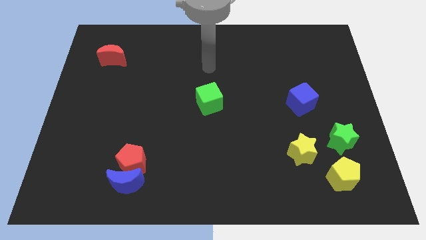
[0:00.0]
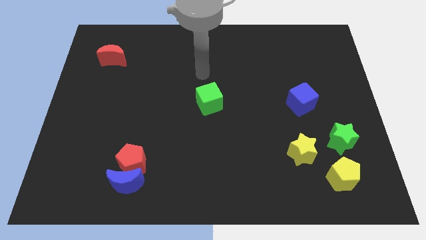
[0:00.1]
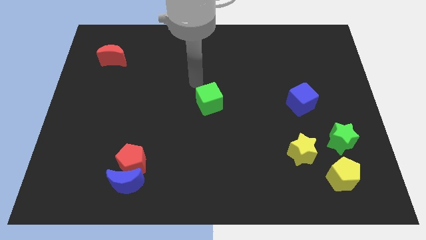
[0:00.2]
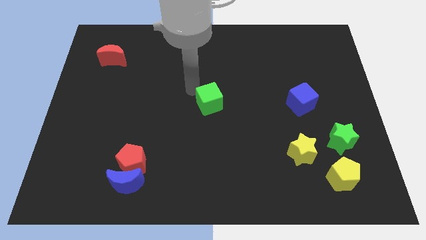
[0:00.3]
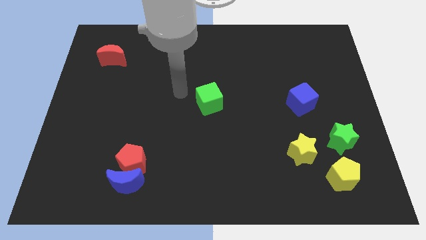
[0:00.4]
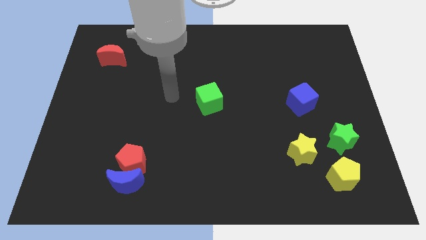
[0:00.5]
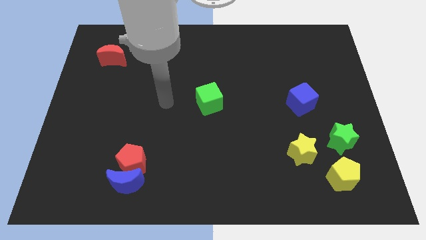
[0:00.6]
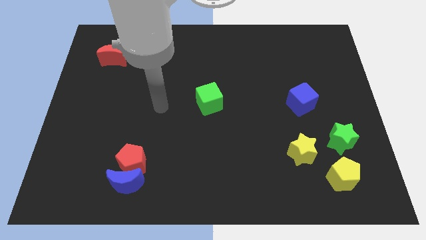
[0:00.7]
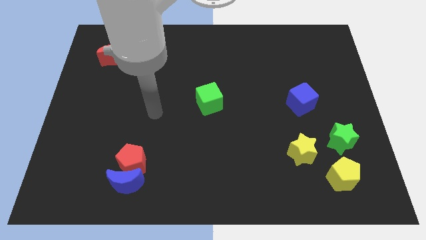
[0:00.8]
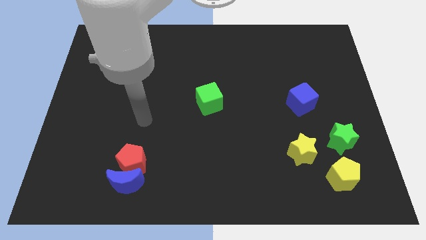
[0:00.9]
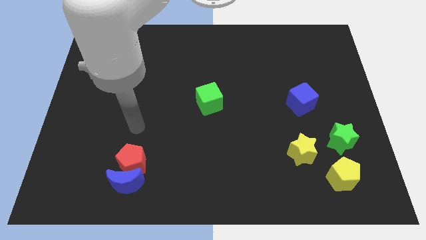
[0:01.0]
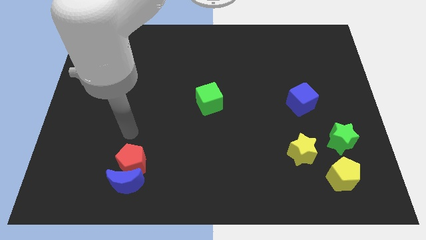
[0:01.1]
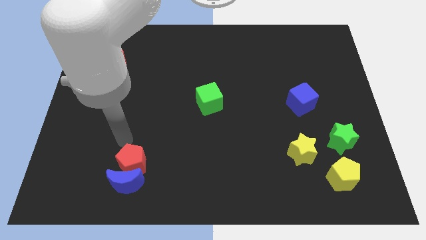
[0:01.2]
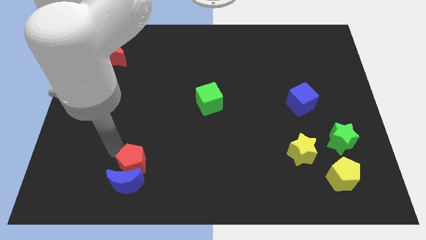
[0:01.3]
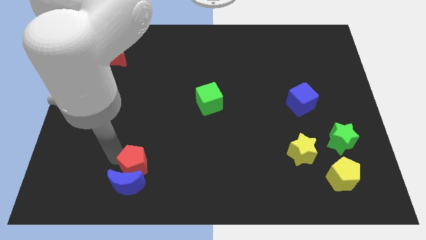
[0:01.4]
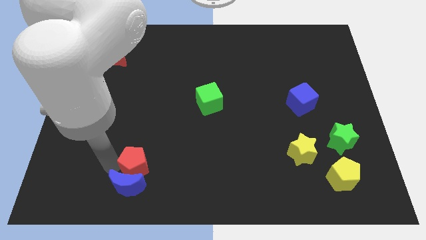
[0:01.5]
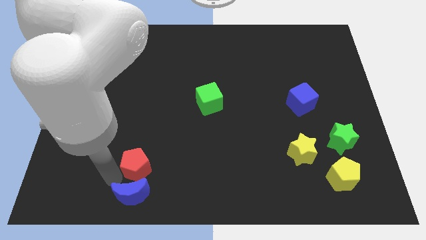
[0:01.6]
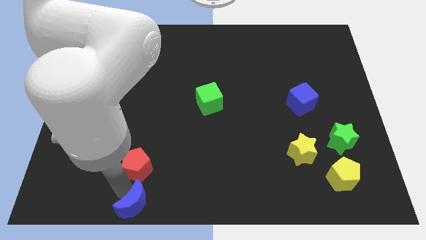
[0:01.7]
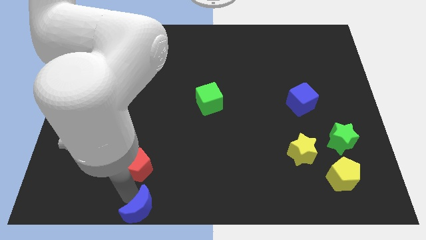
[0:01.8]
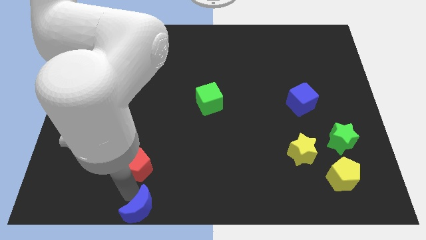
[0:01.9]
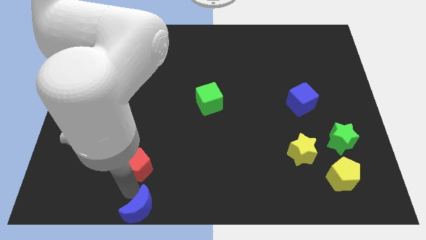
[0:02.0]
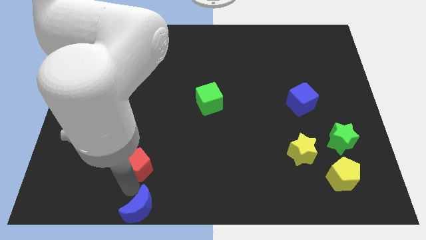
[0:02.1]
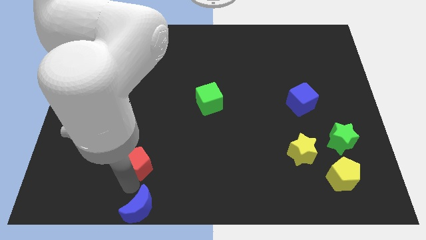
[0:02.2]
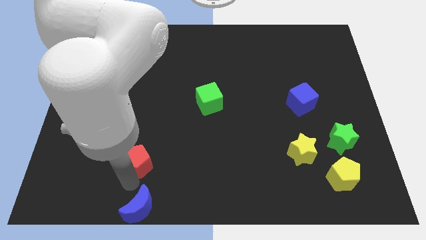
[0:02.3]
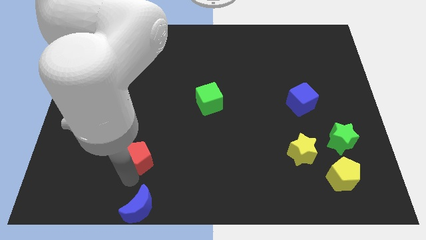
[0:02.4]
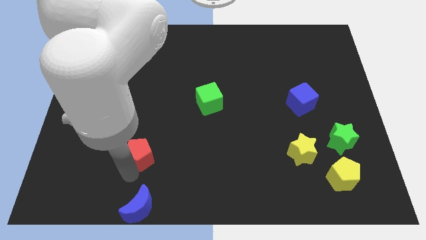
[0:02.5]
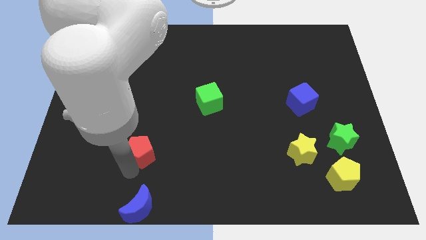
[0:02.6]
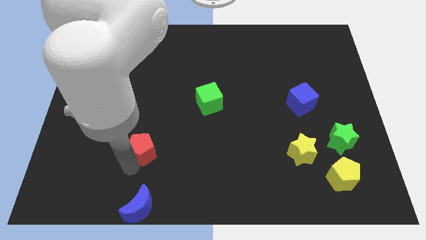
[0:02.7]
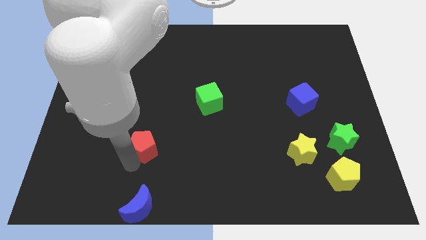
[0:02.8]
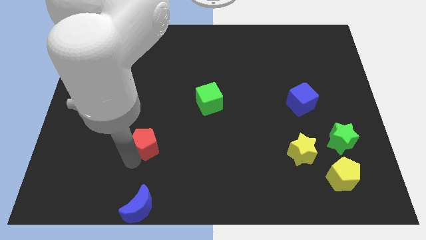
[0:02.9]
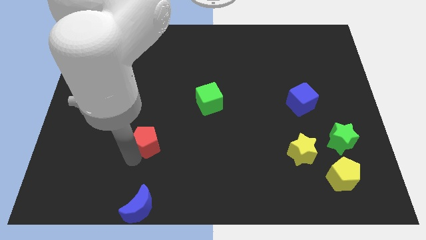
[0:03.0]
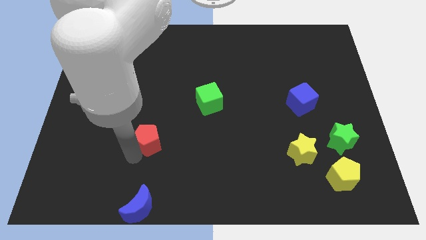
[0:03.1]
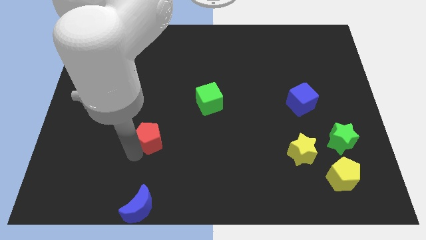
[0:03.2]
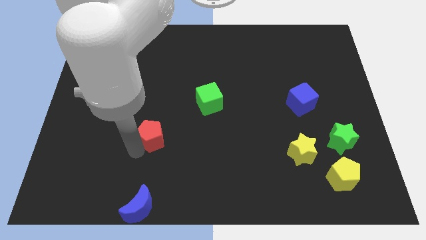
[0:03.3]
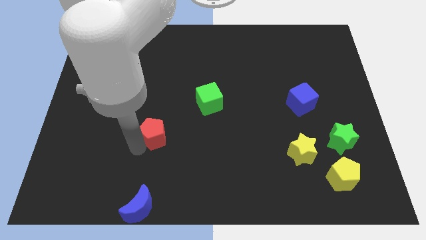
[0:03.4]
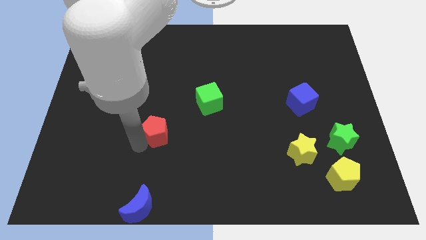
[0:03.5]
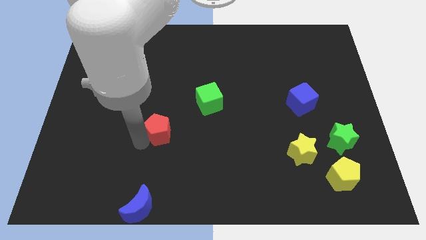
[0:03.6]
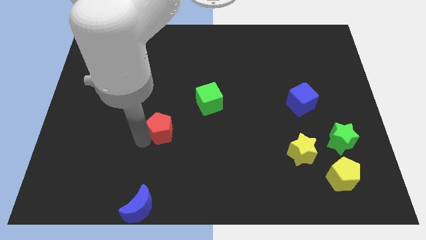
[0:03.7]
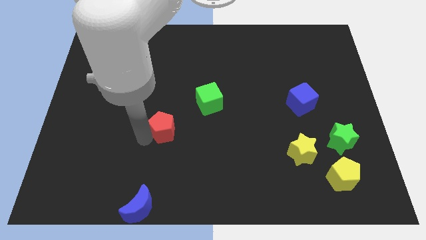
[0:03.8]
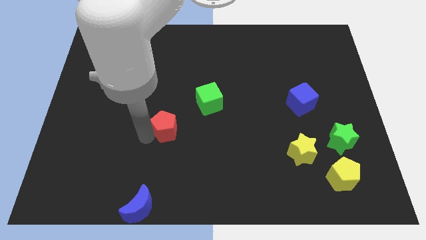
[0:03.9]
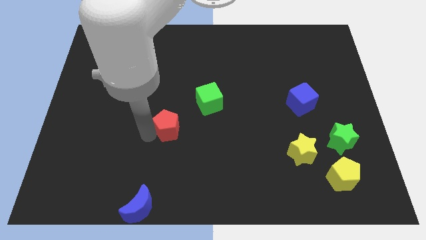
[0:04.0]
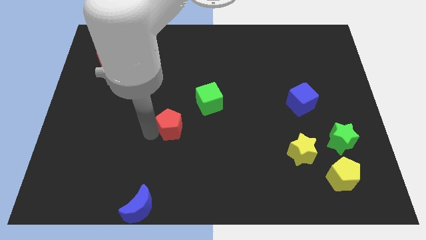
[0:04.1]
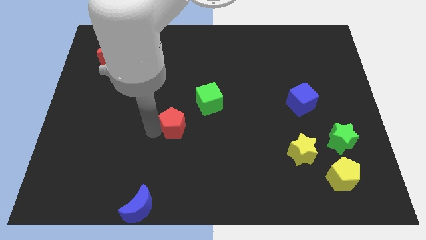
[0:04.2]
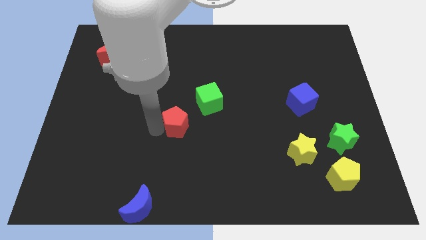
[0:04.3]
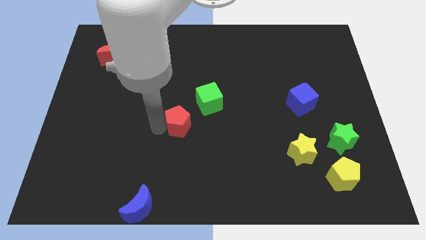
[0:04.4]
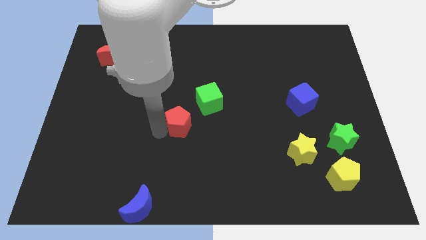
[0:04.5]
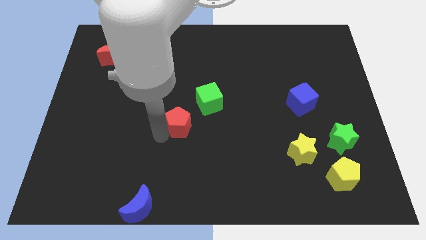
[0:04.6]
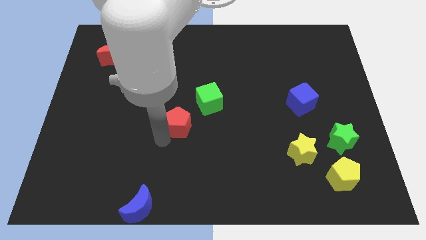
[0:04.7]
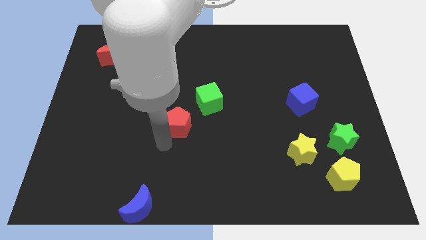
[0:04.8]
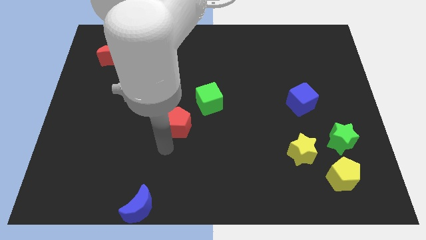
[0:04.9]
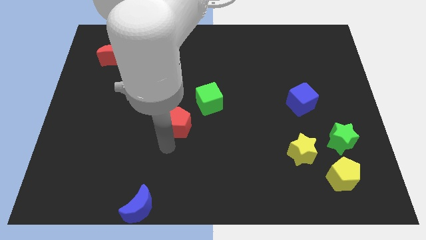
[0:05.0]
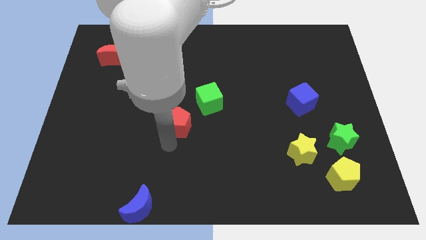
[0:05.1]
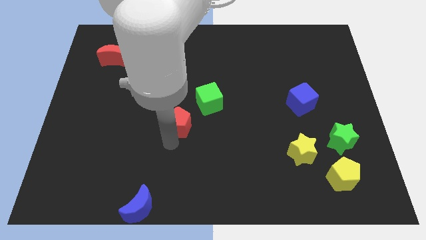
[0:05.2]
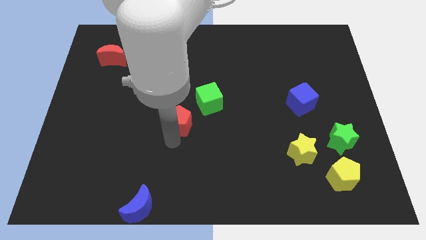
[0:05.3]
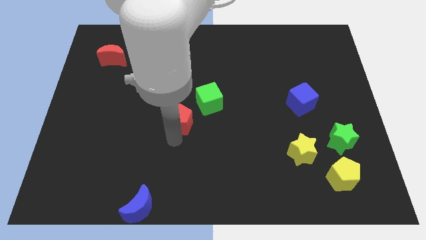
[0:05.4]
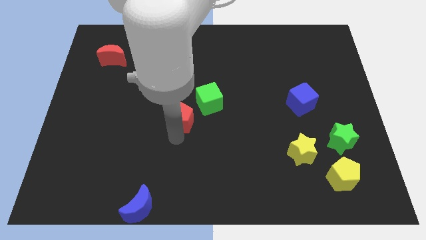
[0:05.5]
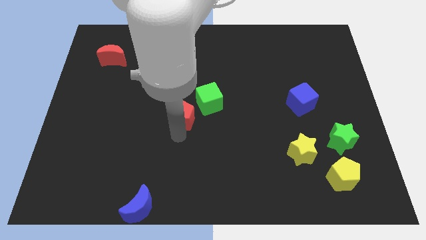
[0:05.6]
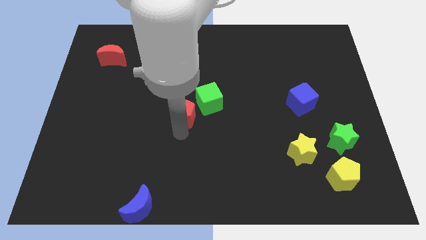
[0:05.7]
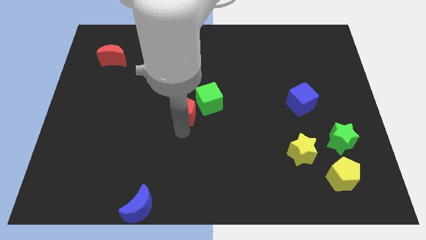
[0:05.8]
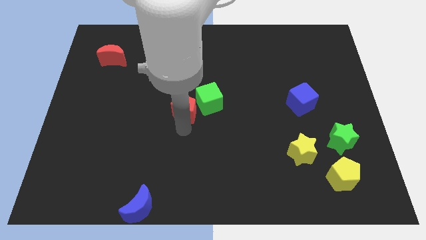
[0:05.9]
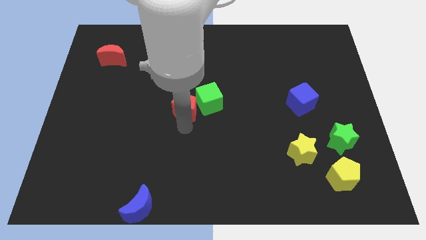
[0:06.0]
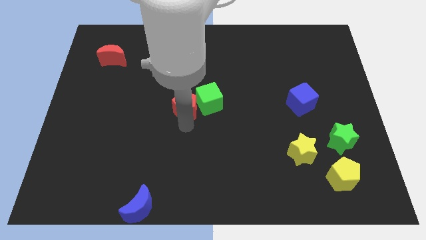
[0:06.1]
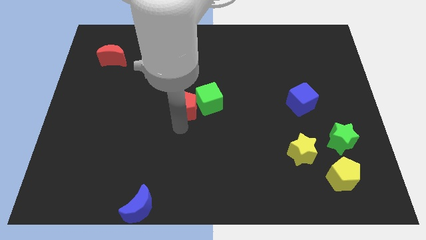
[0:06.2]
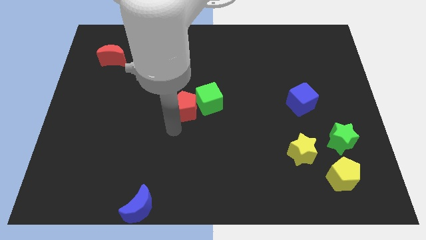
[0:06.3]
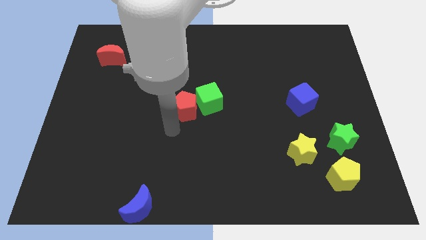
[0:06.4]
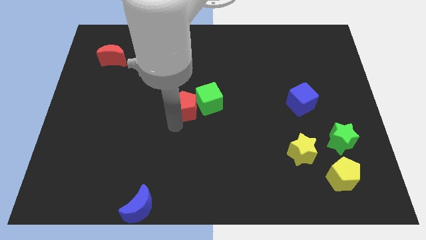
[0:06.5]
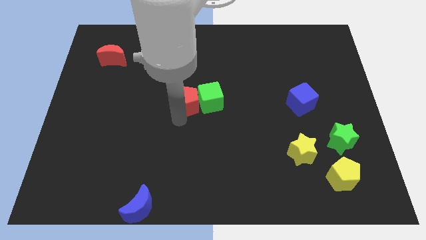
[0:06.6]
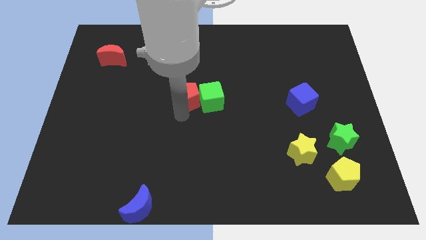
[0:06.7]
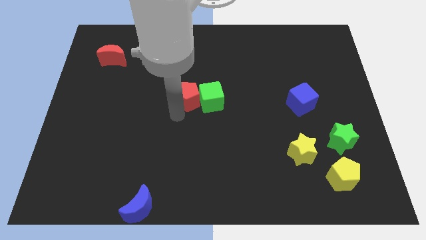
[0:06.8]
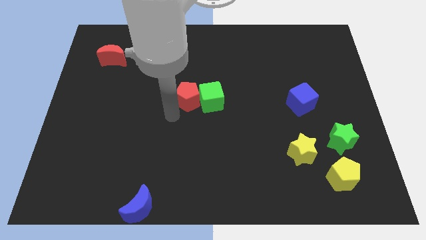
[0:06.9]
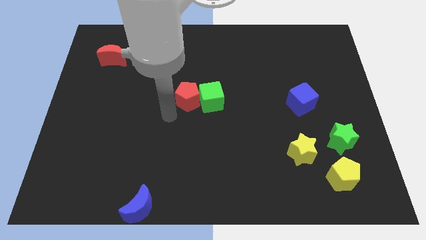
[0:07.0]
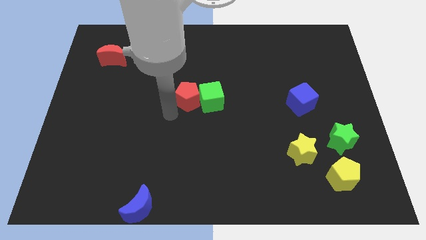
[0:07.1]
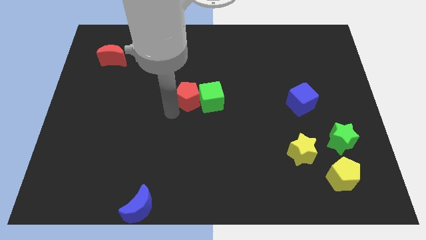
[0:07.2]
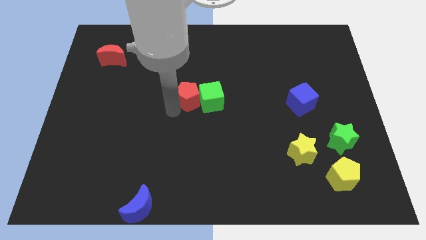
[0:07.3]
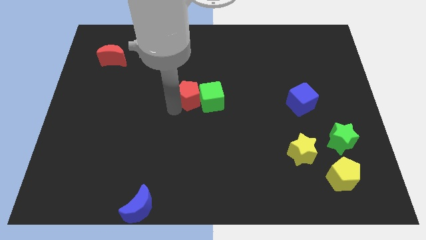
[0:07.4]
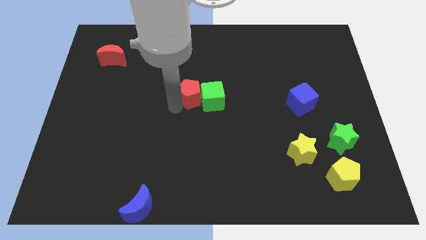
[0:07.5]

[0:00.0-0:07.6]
move the red pentagon diagonally up and right

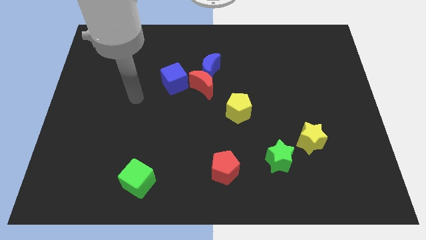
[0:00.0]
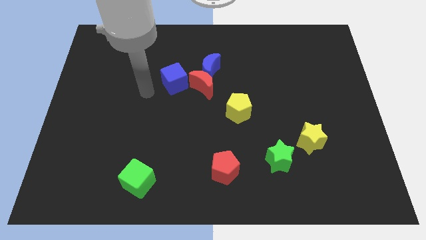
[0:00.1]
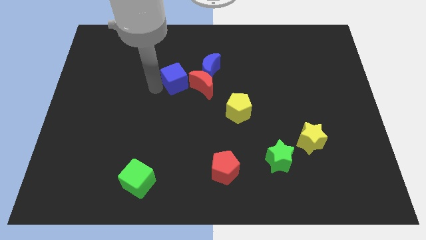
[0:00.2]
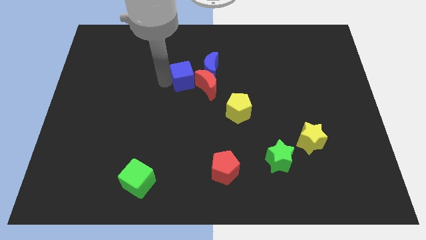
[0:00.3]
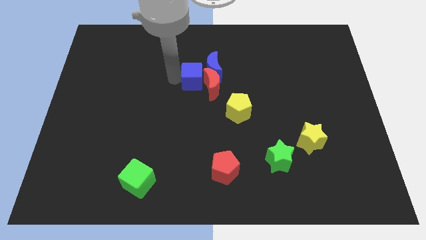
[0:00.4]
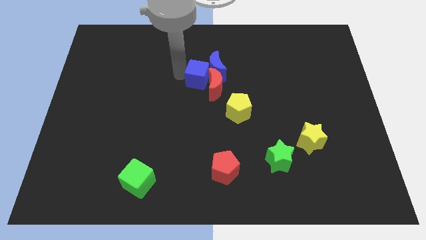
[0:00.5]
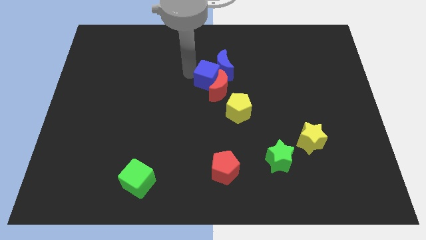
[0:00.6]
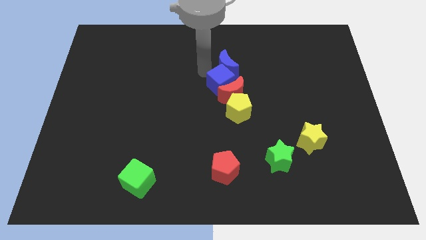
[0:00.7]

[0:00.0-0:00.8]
slightly move the red moon down and to the right diagonally
